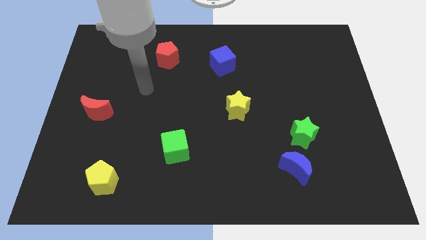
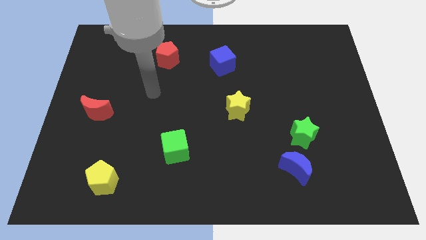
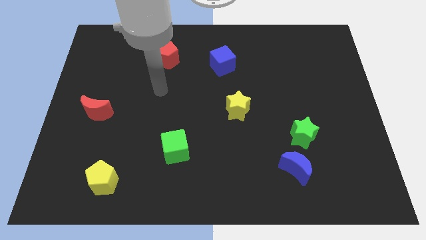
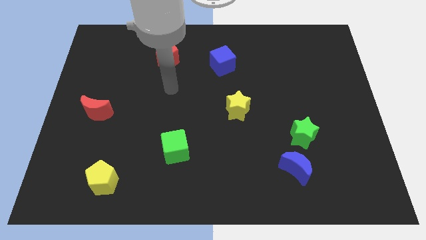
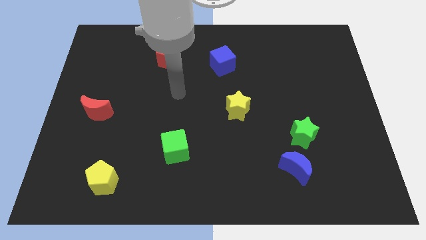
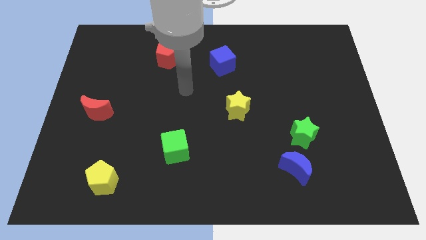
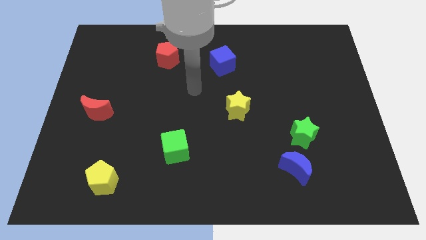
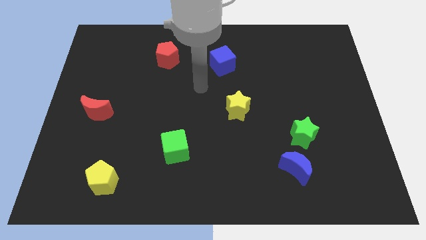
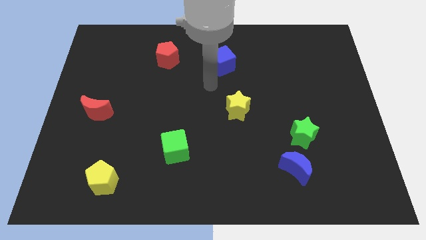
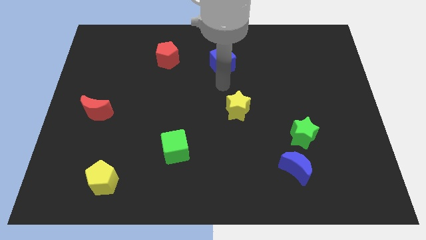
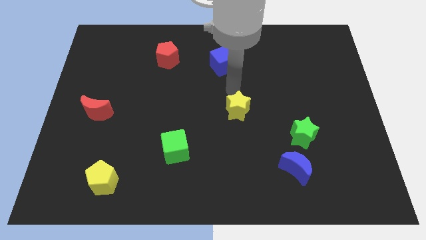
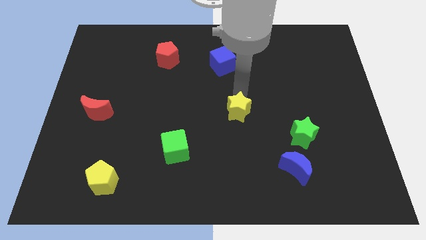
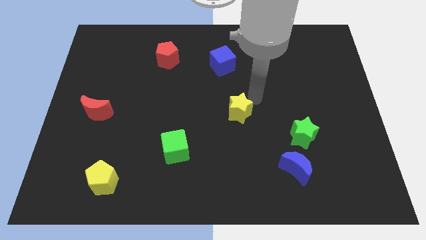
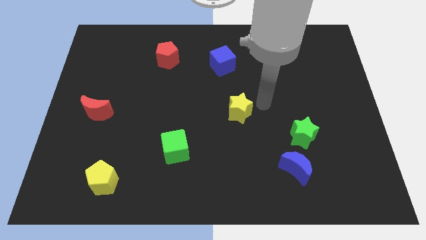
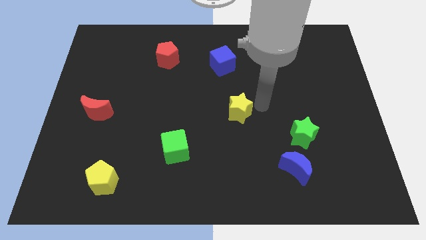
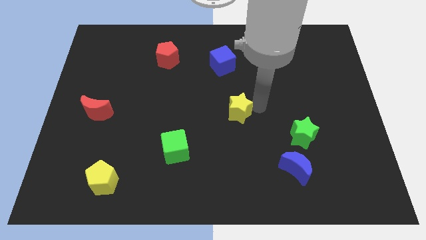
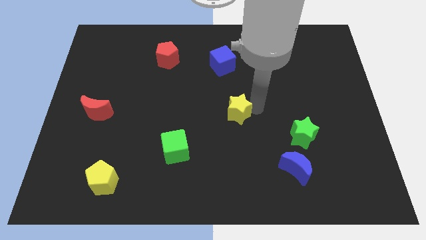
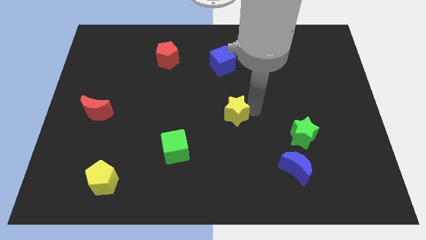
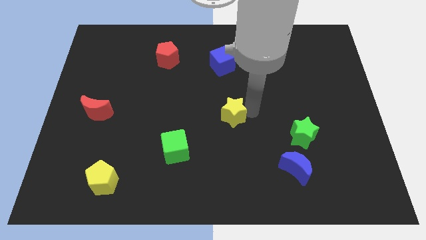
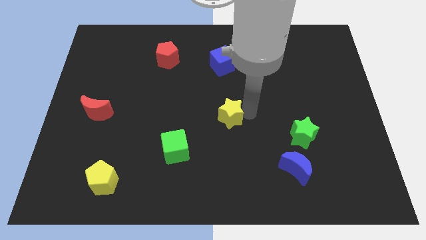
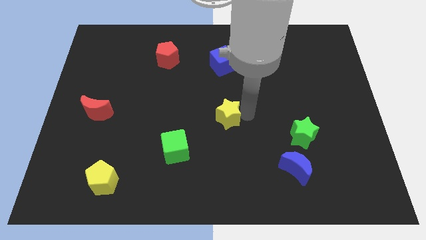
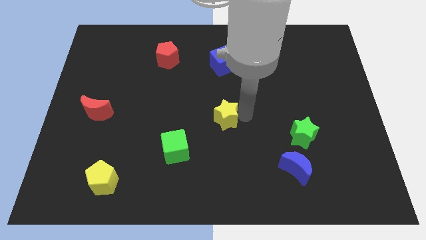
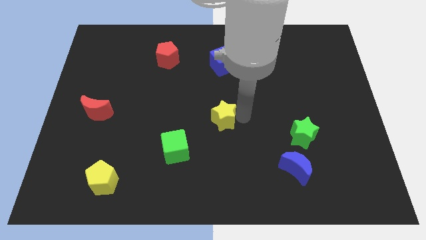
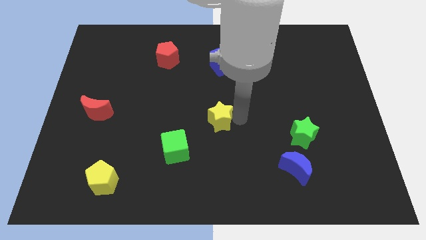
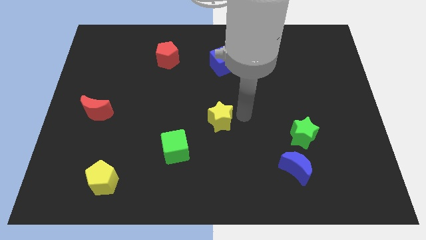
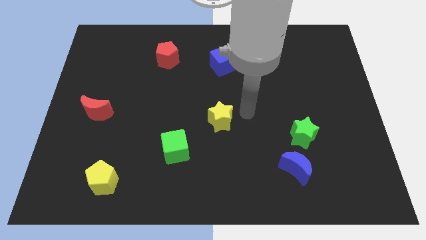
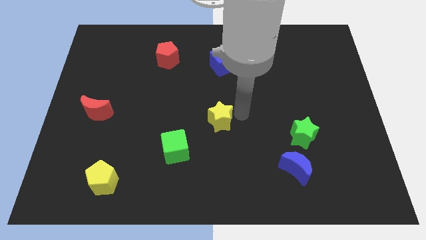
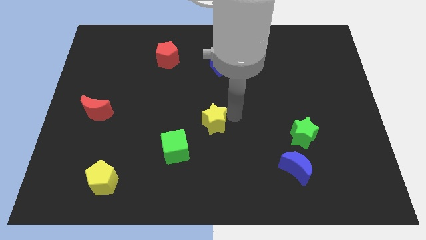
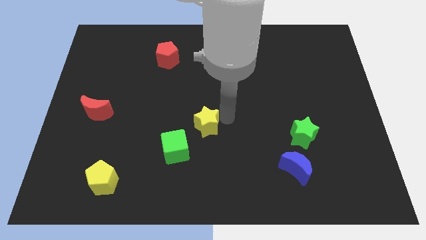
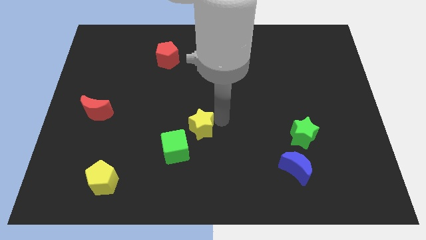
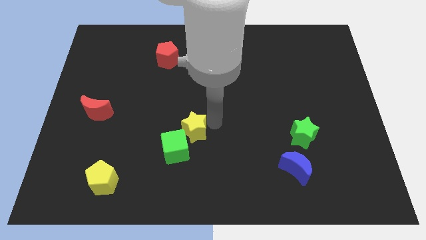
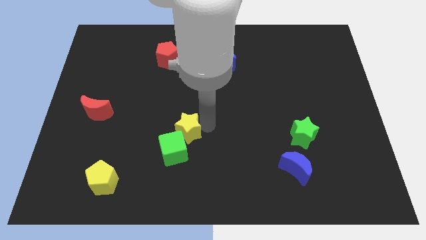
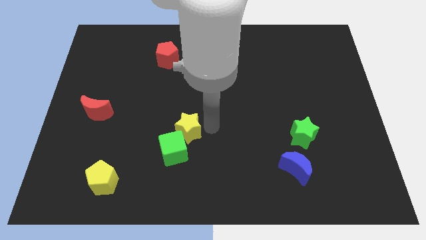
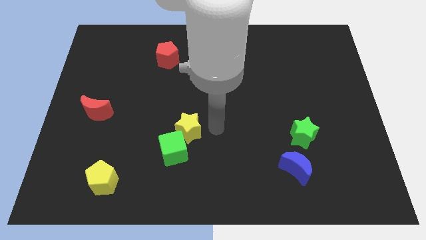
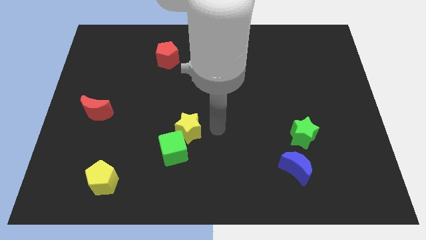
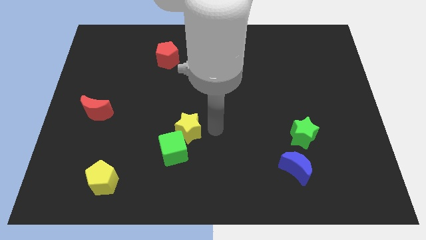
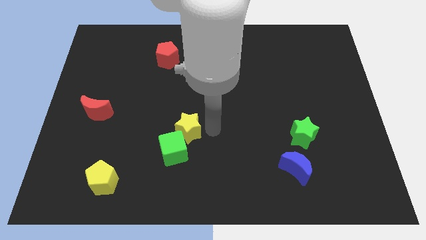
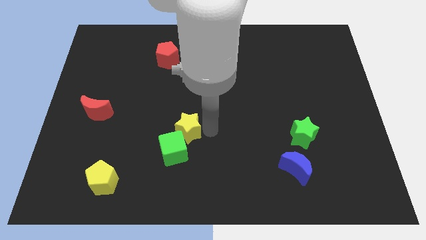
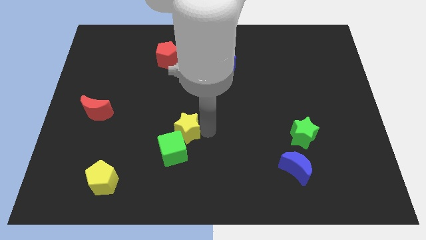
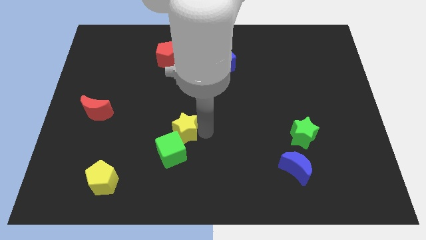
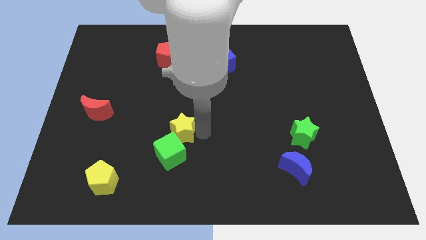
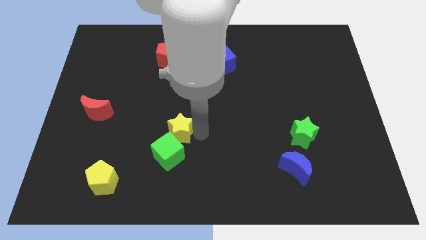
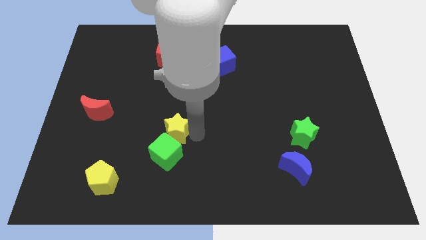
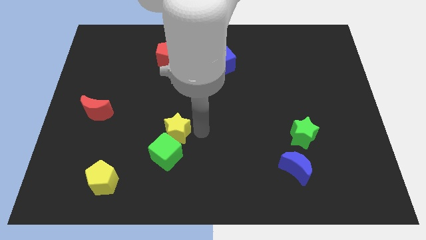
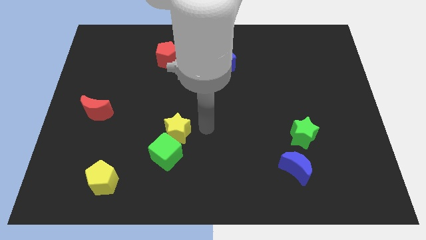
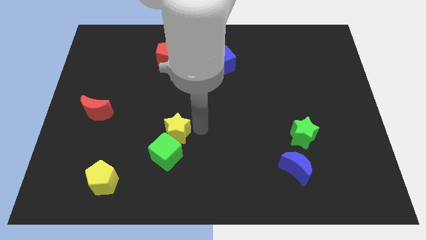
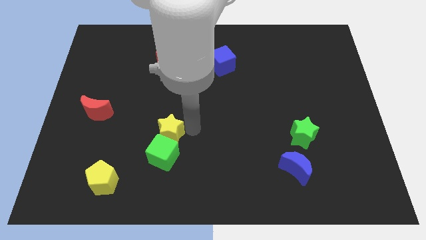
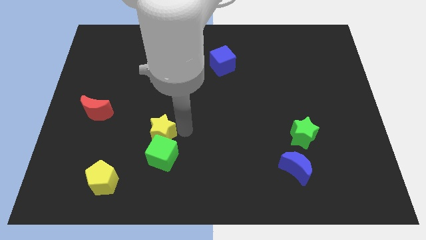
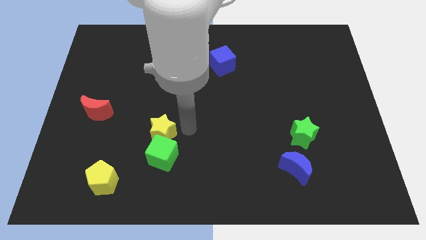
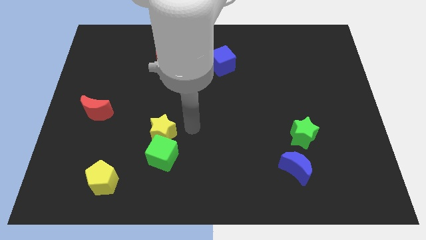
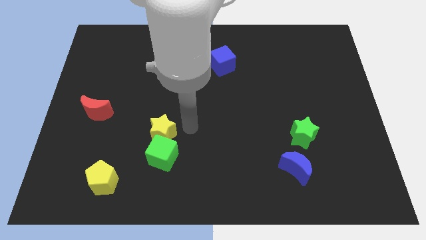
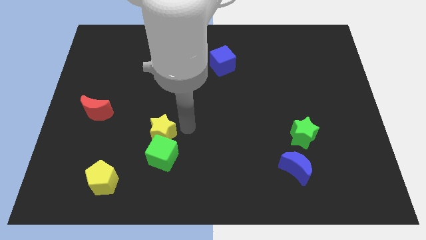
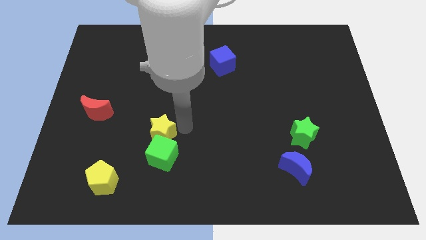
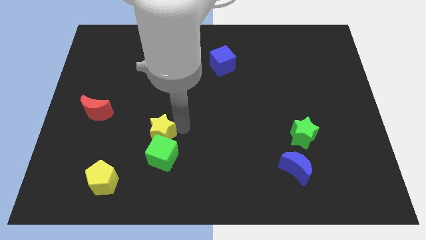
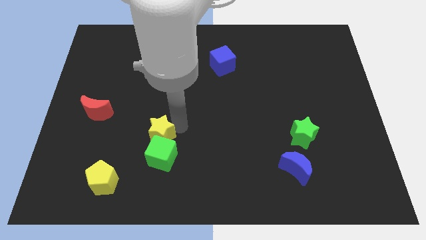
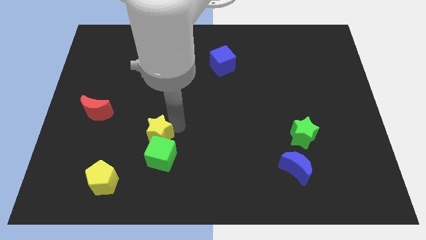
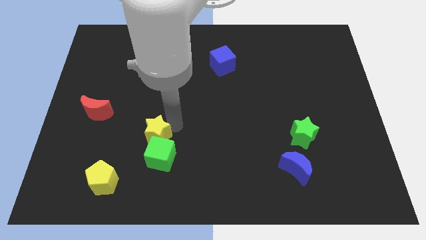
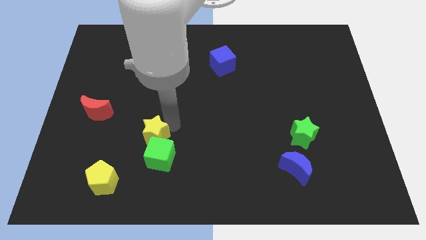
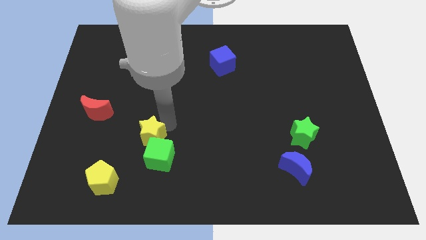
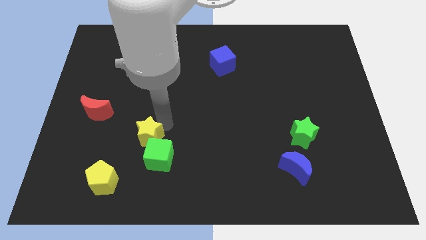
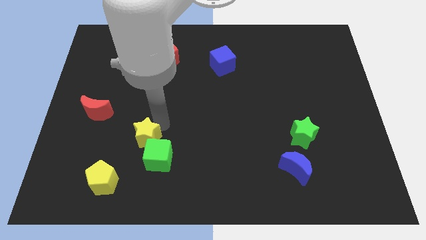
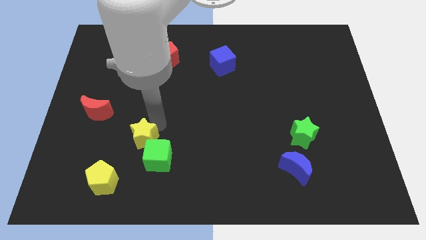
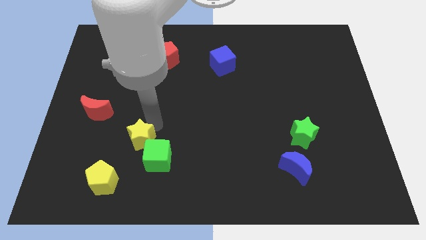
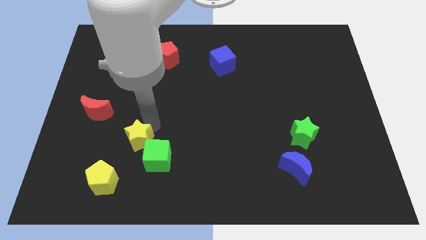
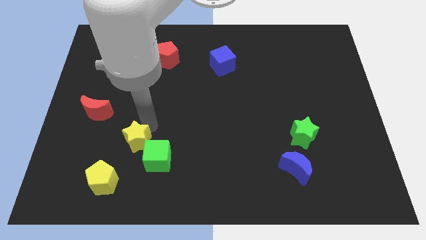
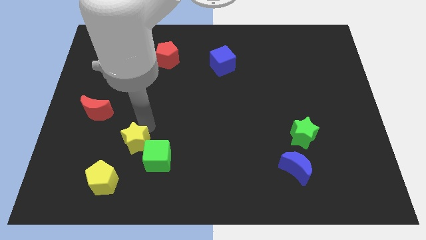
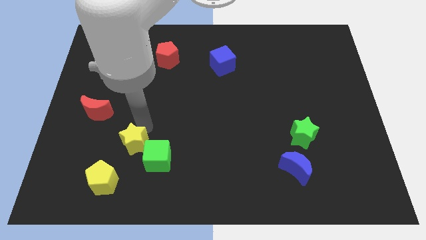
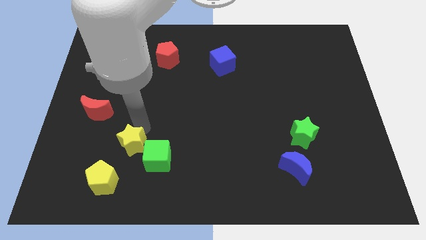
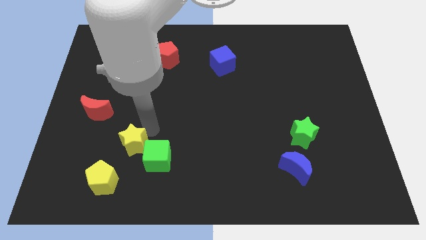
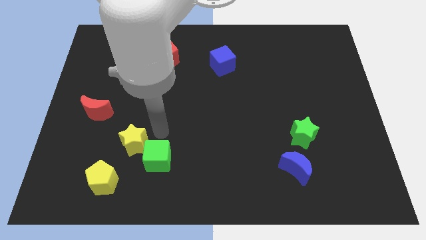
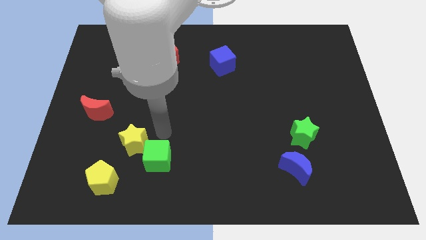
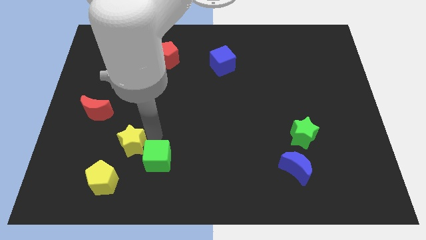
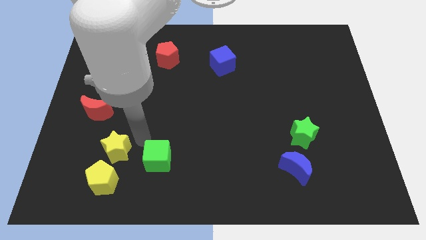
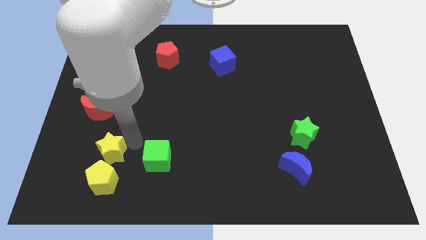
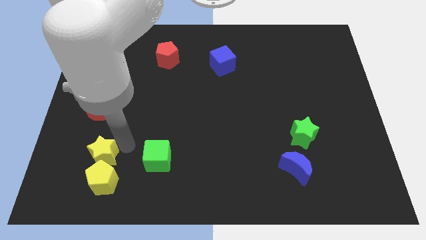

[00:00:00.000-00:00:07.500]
slide the yellow star to the top left side of the yellow pentagon
